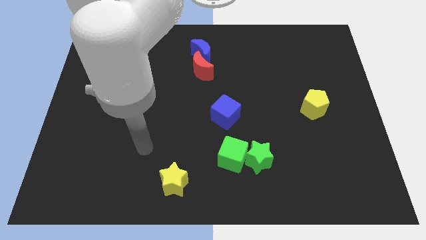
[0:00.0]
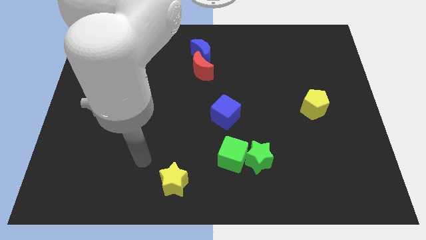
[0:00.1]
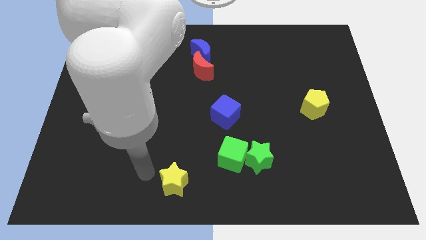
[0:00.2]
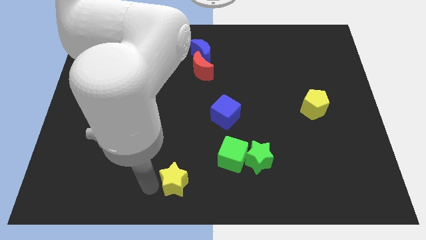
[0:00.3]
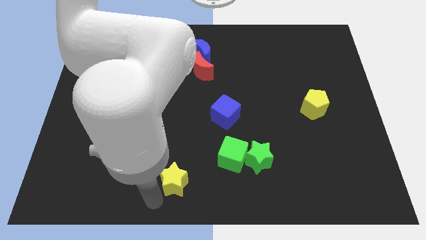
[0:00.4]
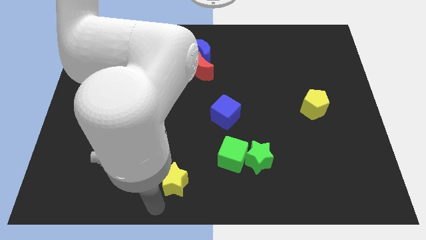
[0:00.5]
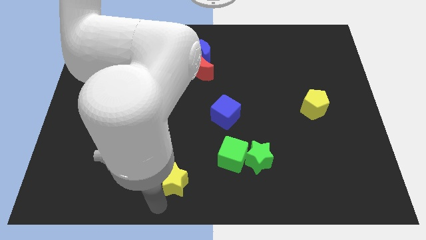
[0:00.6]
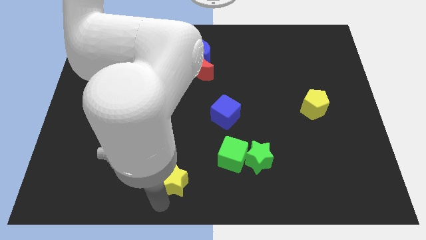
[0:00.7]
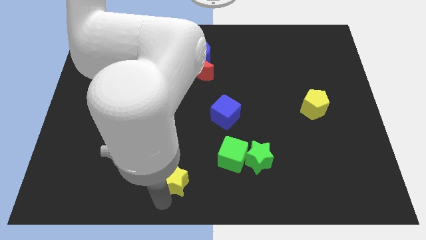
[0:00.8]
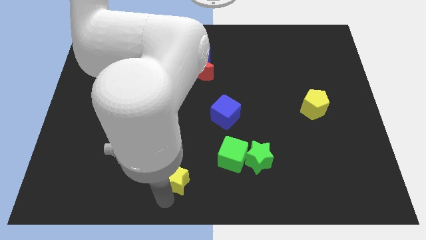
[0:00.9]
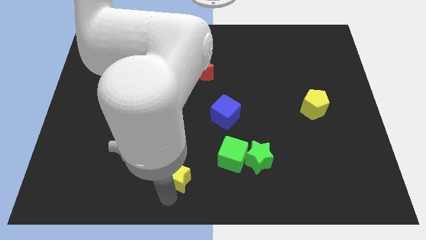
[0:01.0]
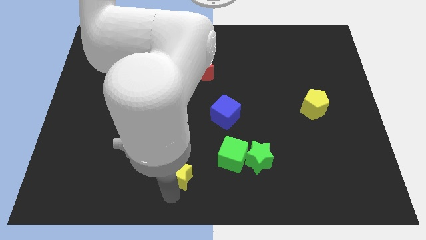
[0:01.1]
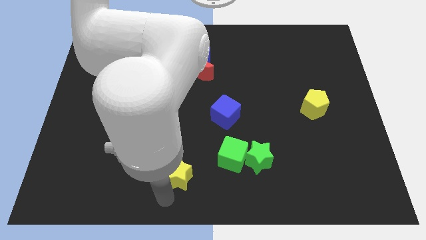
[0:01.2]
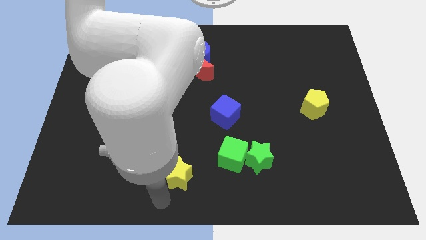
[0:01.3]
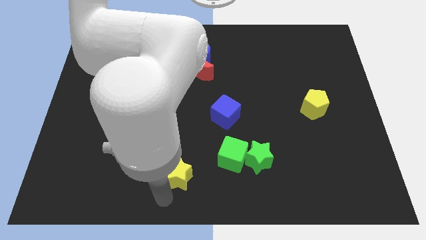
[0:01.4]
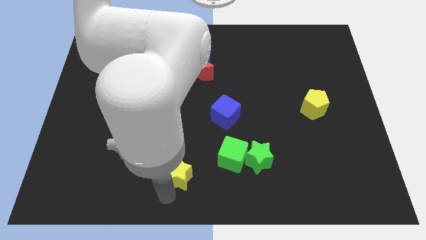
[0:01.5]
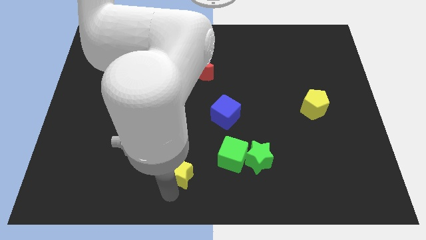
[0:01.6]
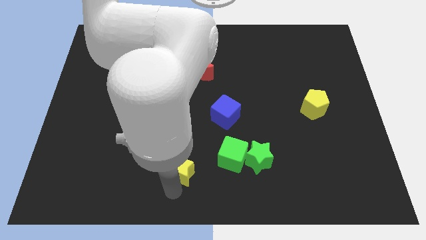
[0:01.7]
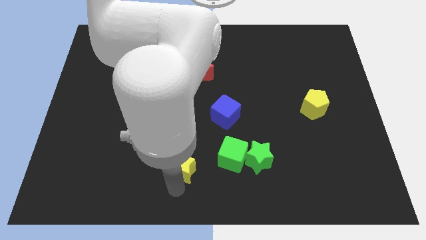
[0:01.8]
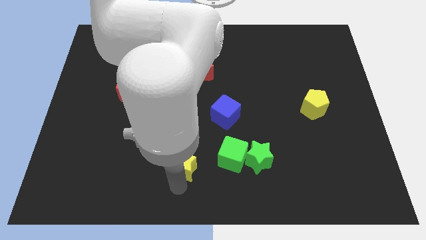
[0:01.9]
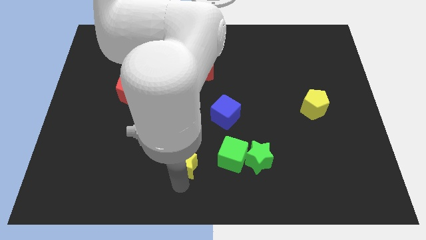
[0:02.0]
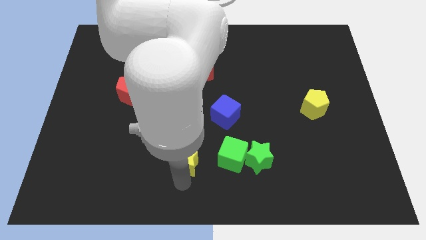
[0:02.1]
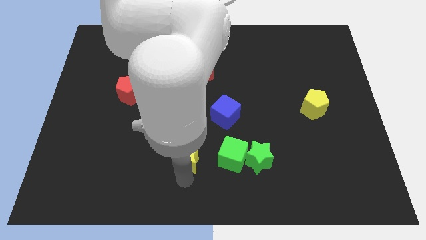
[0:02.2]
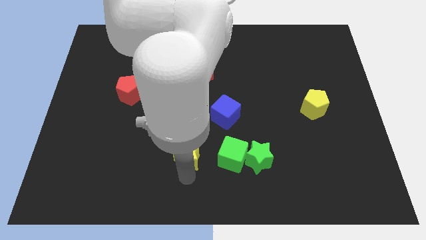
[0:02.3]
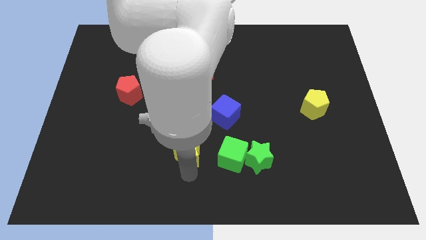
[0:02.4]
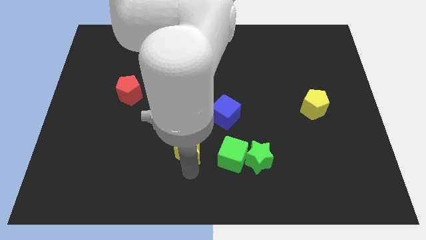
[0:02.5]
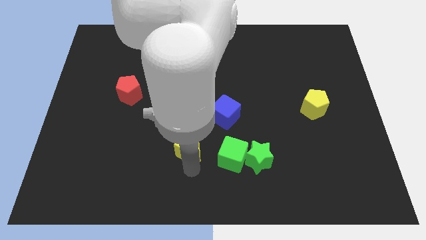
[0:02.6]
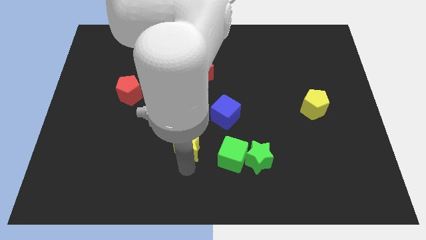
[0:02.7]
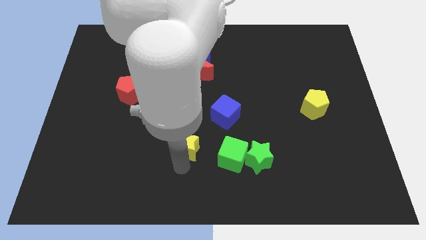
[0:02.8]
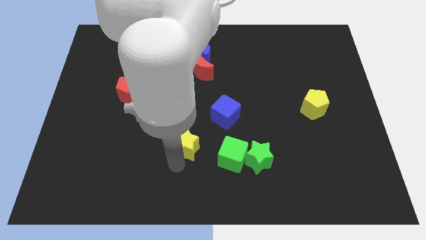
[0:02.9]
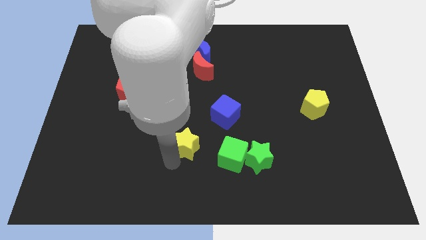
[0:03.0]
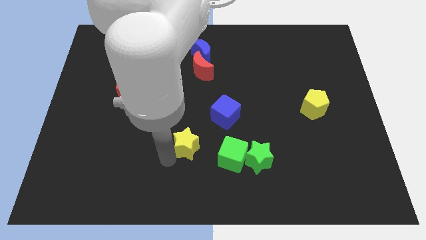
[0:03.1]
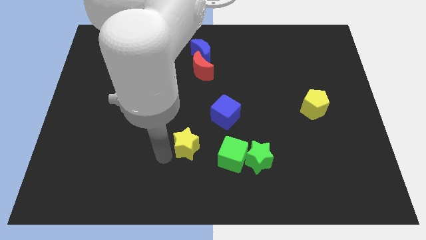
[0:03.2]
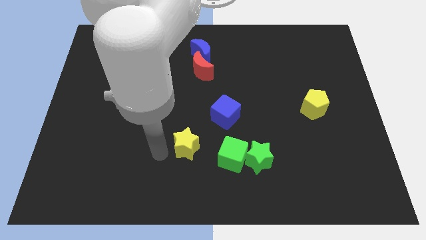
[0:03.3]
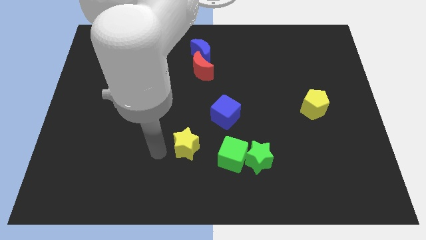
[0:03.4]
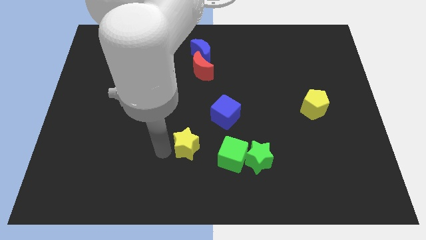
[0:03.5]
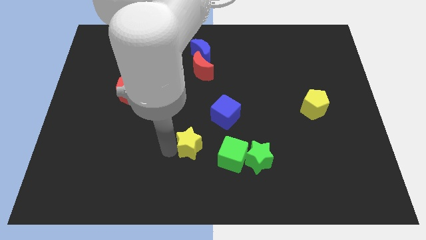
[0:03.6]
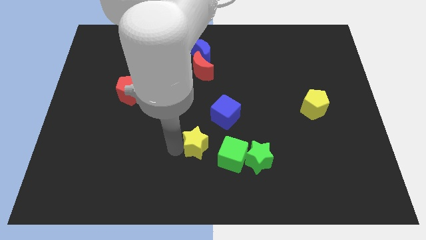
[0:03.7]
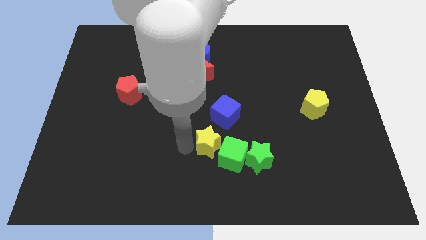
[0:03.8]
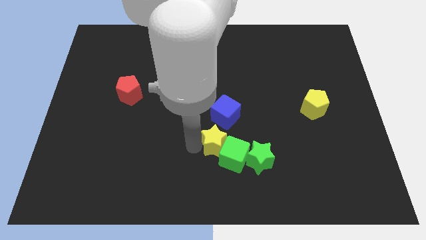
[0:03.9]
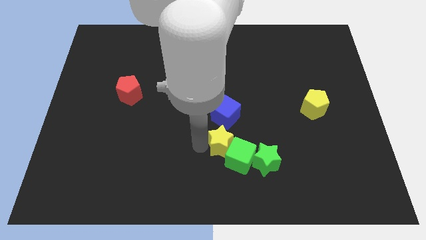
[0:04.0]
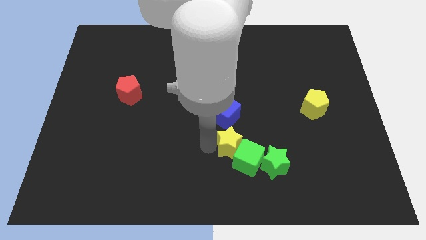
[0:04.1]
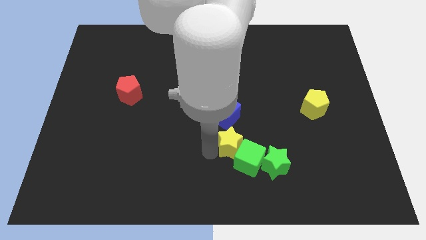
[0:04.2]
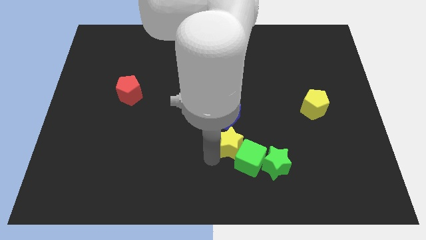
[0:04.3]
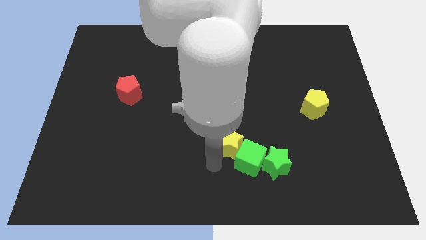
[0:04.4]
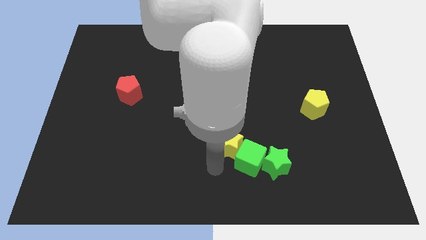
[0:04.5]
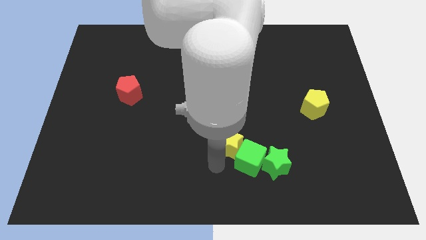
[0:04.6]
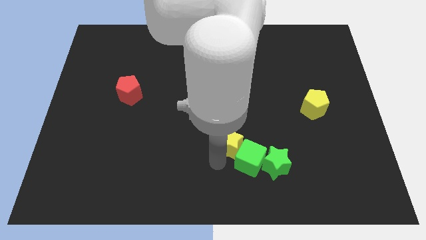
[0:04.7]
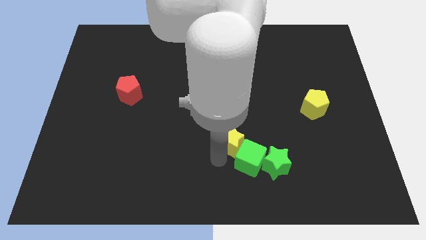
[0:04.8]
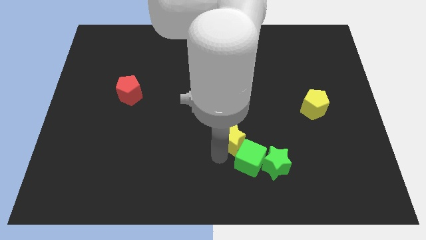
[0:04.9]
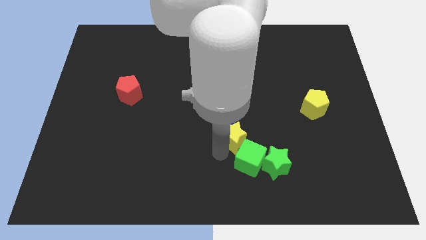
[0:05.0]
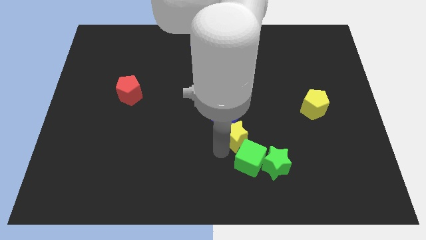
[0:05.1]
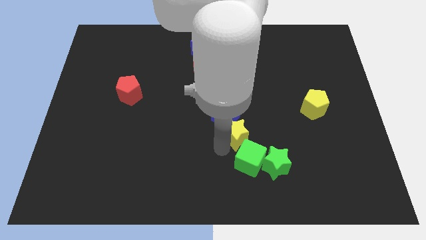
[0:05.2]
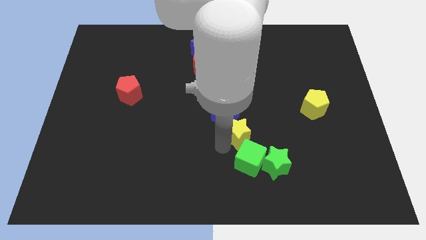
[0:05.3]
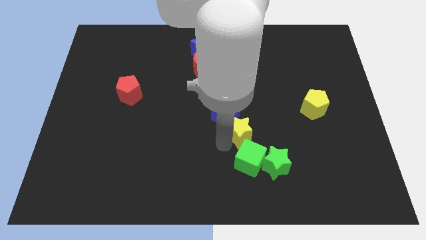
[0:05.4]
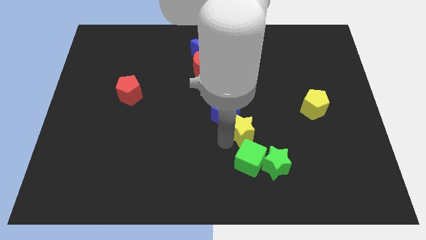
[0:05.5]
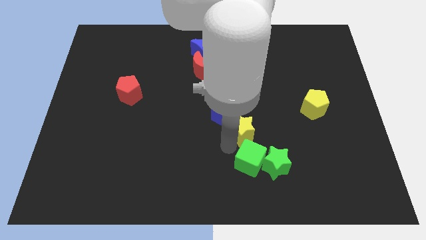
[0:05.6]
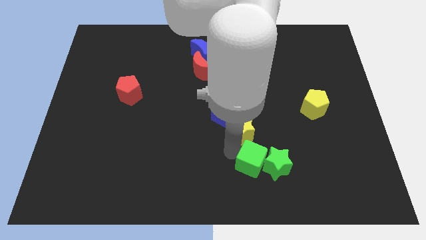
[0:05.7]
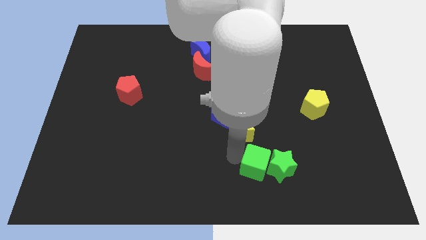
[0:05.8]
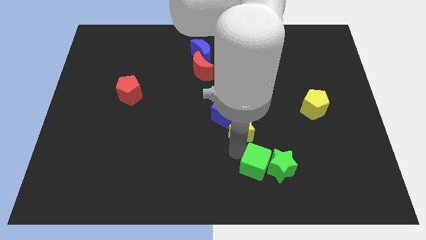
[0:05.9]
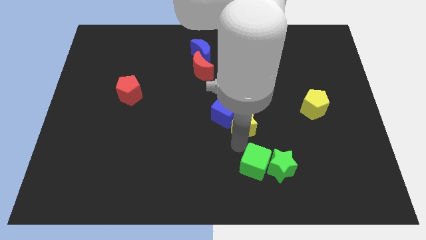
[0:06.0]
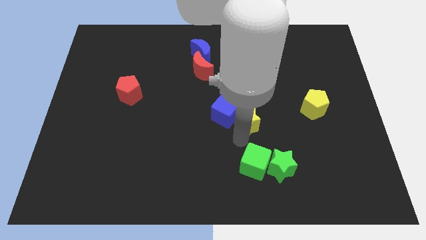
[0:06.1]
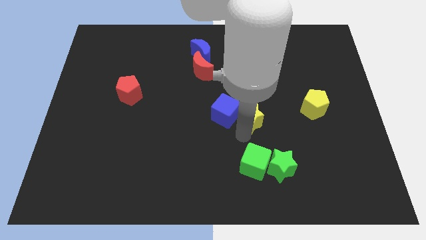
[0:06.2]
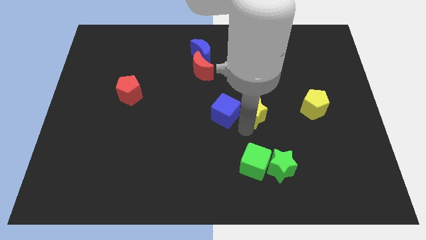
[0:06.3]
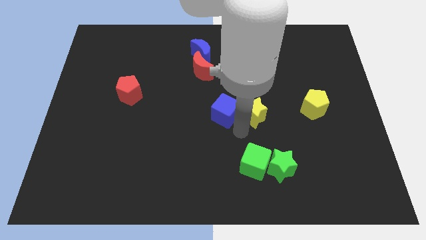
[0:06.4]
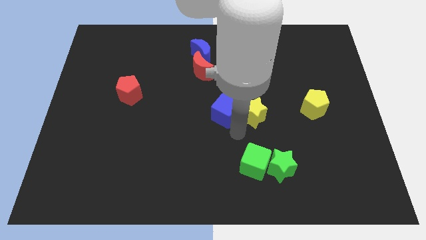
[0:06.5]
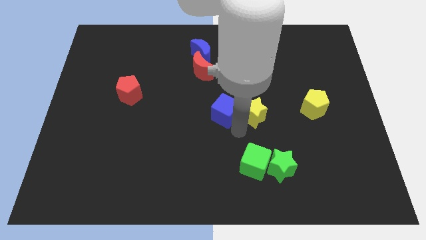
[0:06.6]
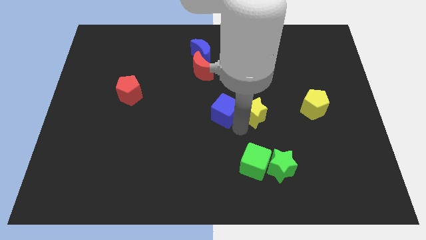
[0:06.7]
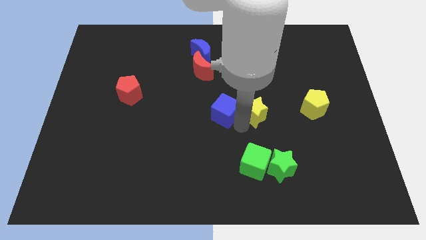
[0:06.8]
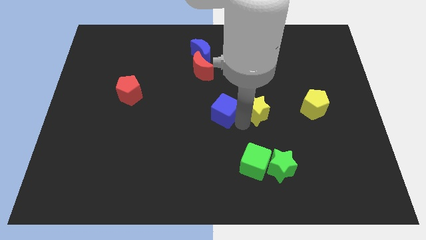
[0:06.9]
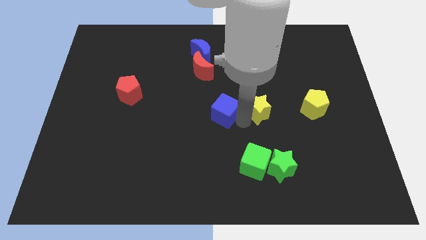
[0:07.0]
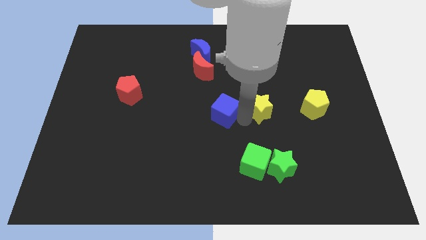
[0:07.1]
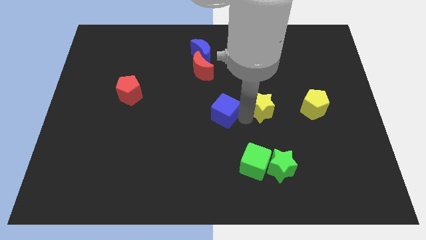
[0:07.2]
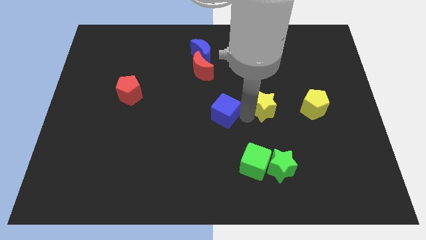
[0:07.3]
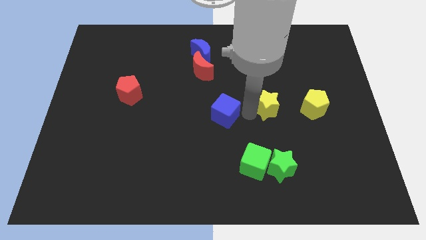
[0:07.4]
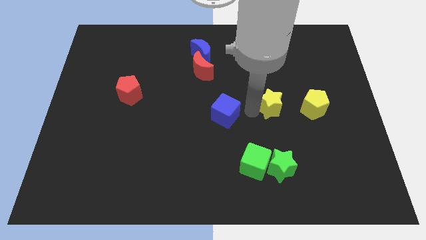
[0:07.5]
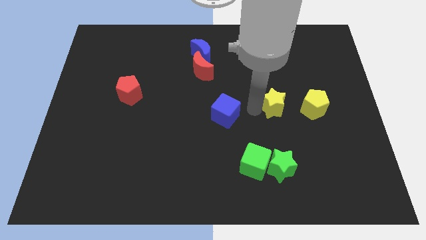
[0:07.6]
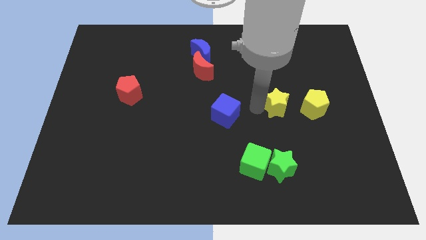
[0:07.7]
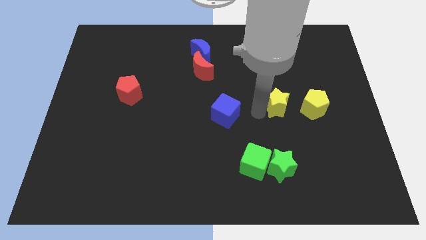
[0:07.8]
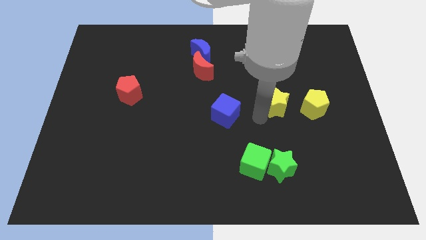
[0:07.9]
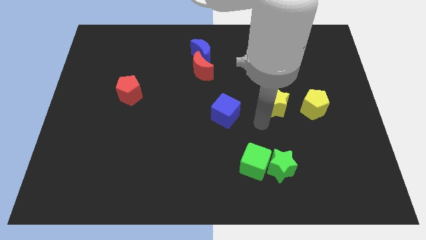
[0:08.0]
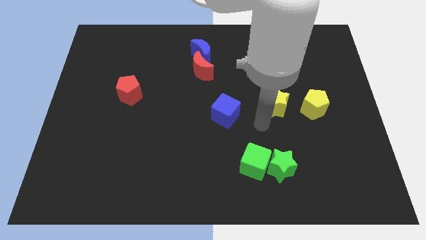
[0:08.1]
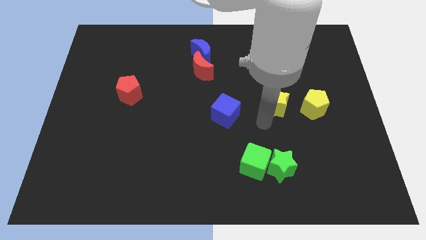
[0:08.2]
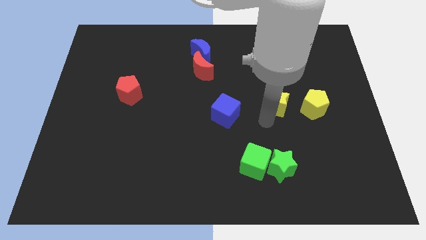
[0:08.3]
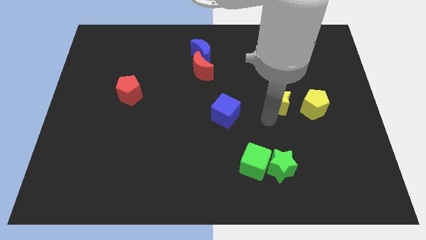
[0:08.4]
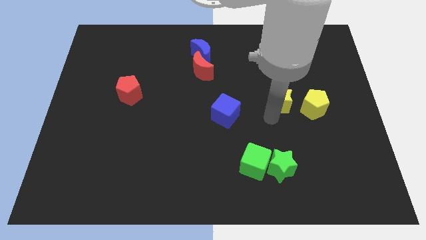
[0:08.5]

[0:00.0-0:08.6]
put the yellow star diagonally up and to the left of the yellow pentagon
